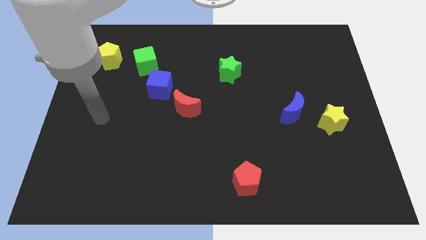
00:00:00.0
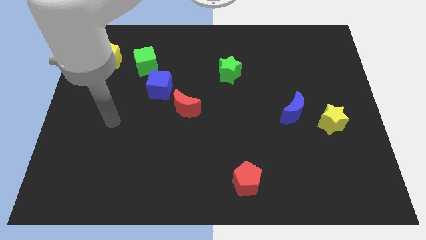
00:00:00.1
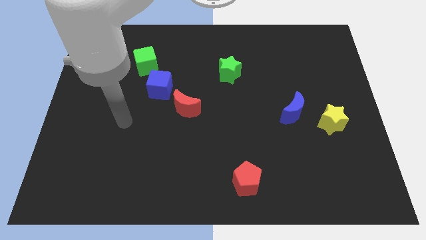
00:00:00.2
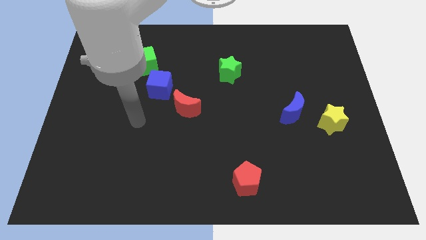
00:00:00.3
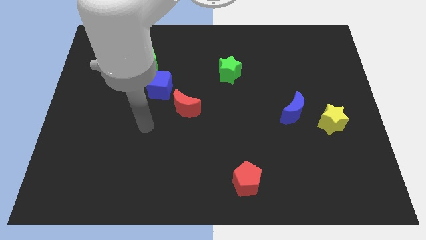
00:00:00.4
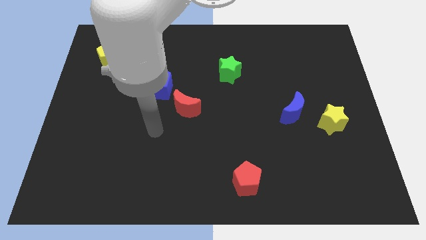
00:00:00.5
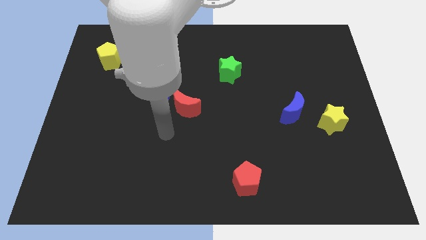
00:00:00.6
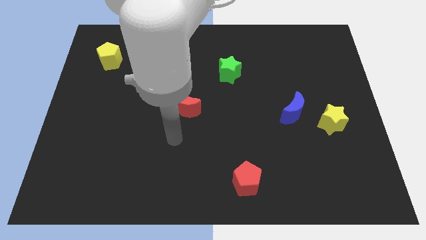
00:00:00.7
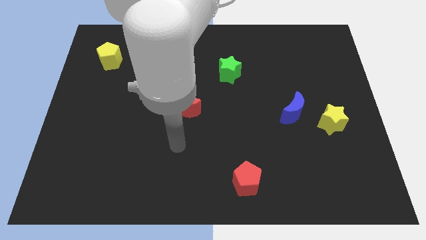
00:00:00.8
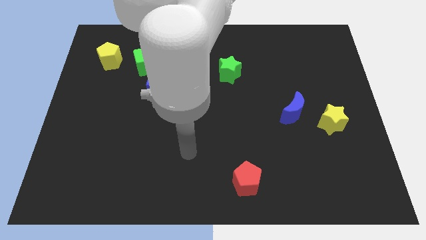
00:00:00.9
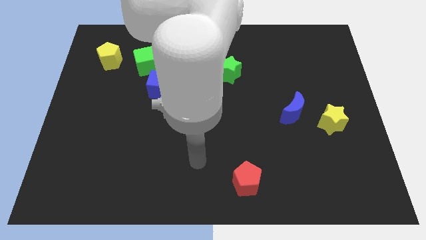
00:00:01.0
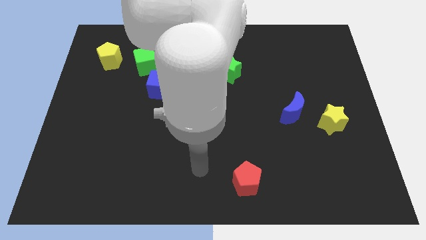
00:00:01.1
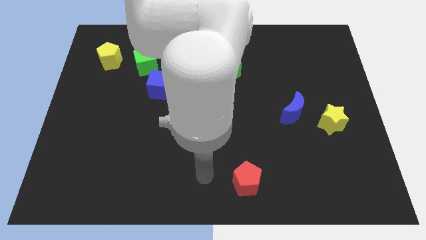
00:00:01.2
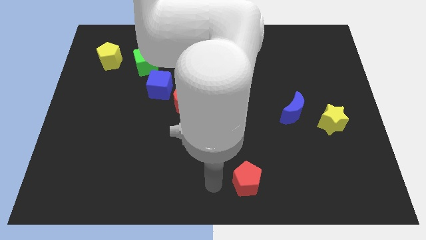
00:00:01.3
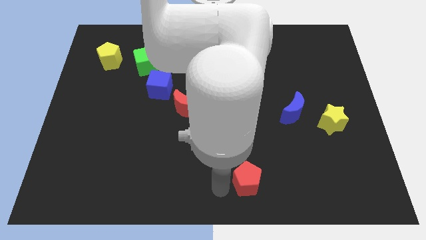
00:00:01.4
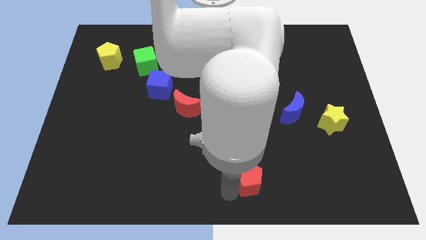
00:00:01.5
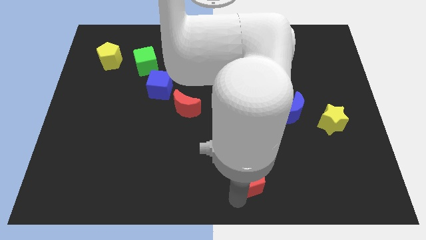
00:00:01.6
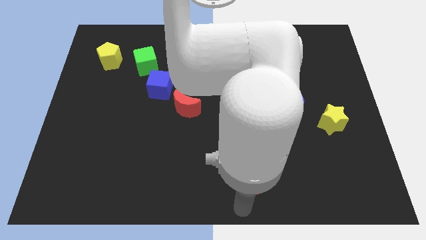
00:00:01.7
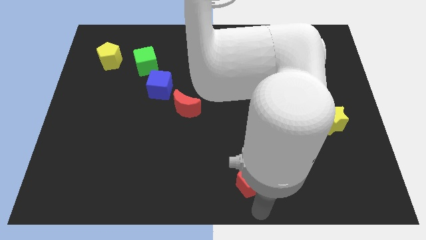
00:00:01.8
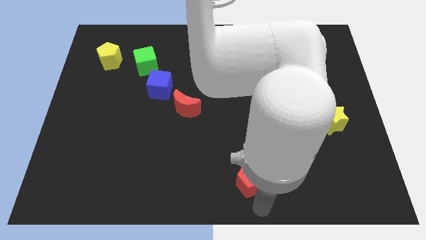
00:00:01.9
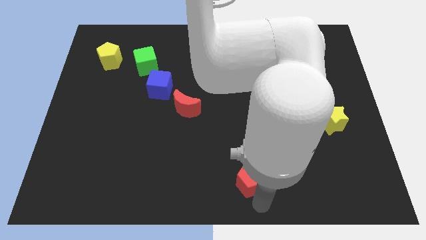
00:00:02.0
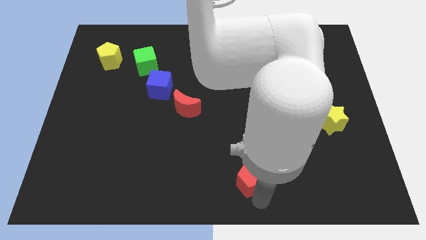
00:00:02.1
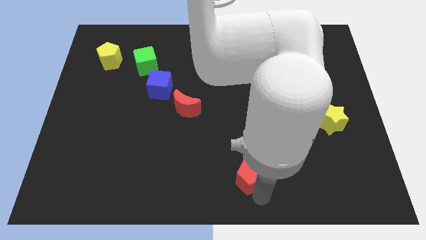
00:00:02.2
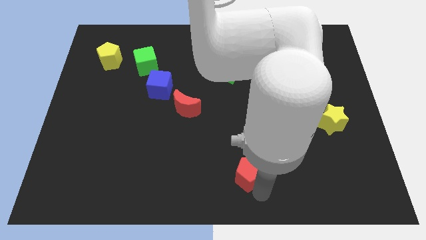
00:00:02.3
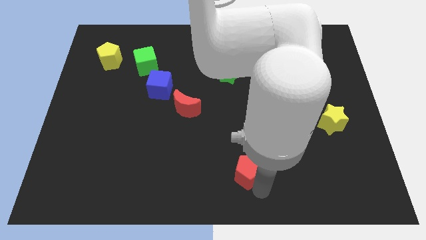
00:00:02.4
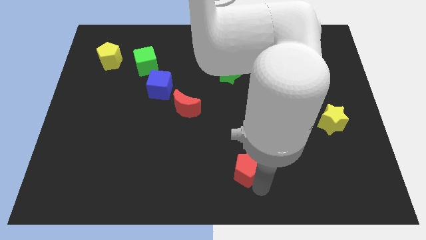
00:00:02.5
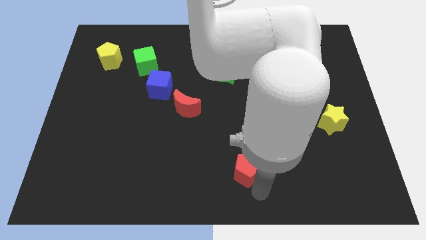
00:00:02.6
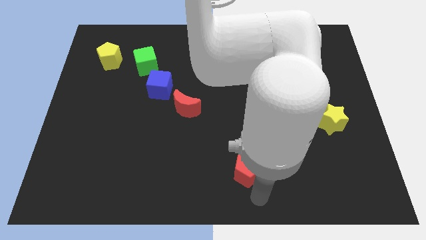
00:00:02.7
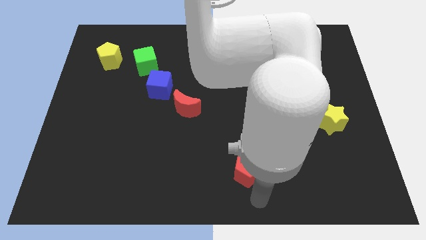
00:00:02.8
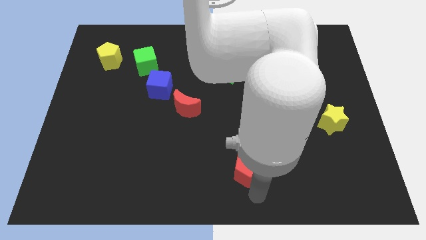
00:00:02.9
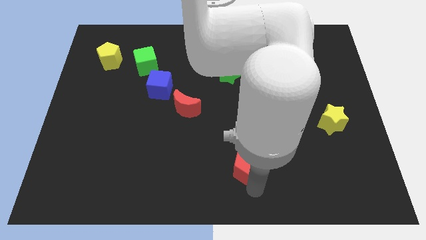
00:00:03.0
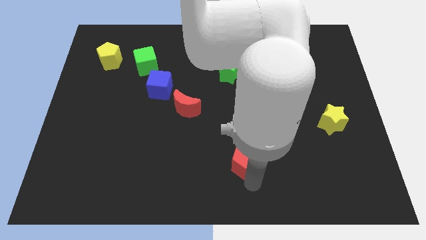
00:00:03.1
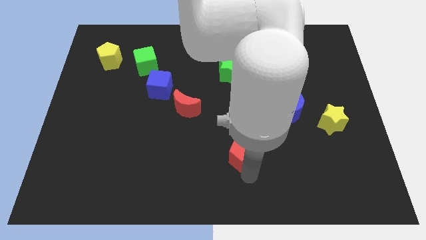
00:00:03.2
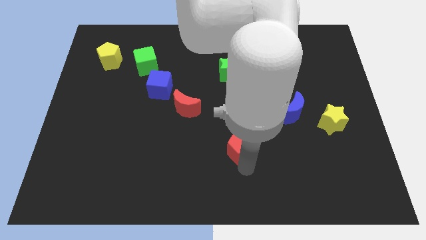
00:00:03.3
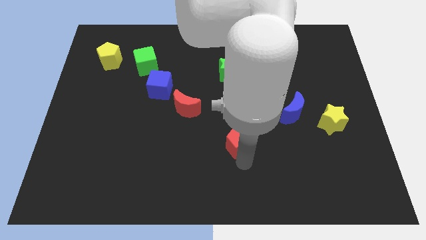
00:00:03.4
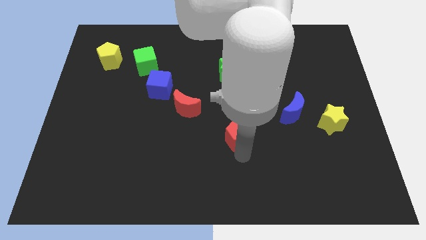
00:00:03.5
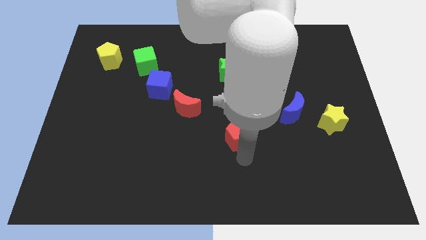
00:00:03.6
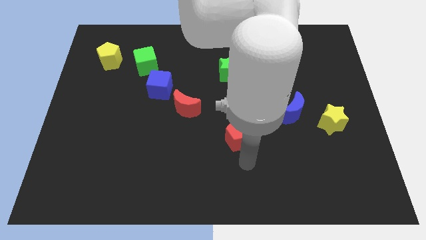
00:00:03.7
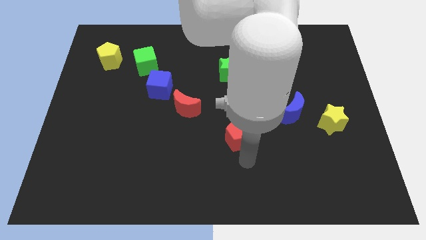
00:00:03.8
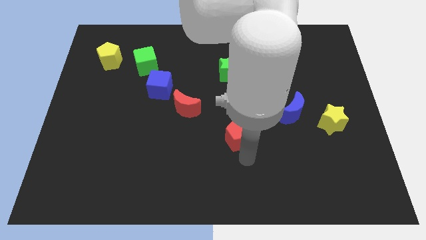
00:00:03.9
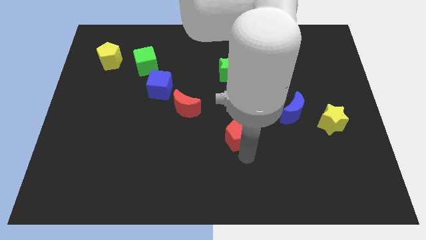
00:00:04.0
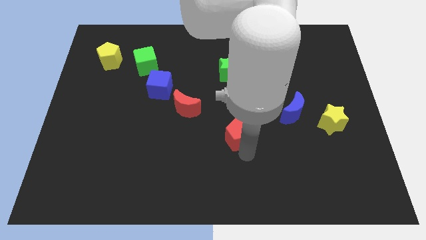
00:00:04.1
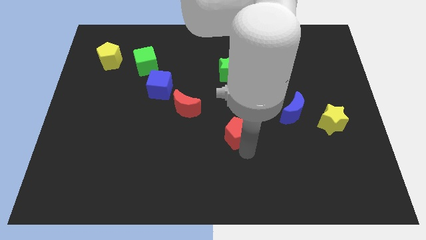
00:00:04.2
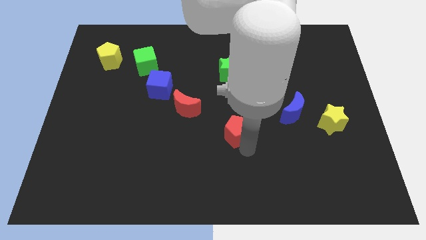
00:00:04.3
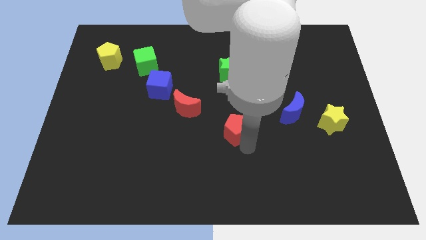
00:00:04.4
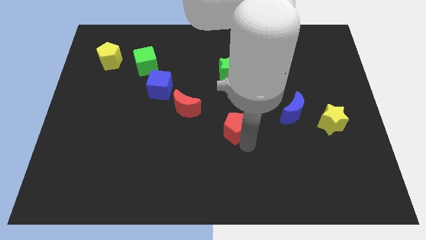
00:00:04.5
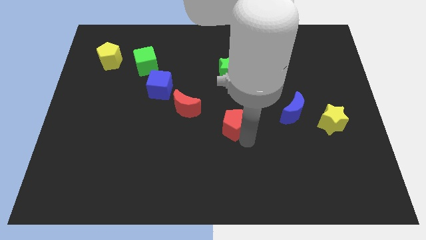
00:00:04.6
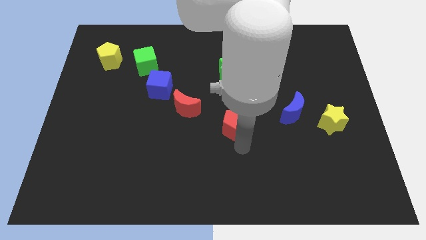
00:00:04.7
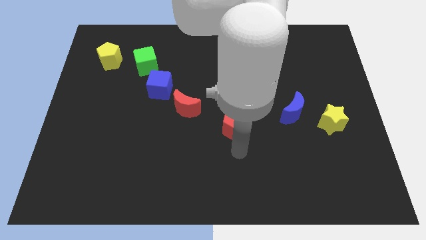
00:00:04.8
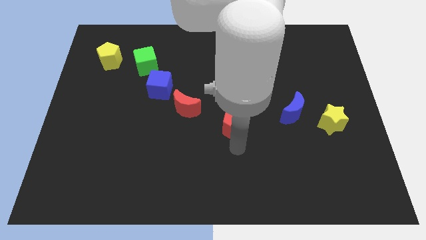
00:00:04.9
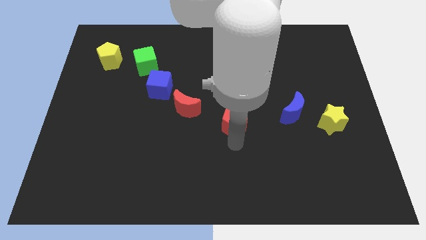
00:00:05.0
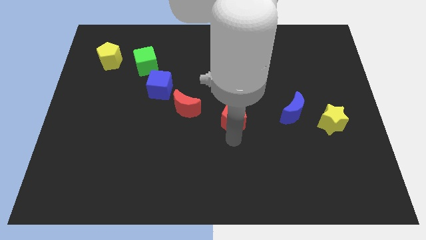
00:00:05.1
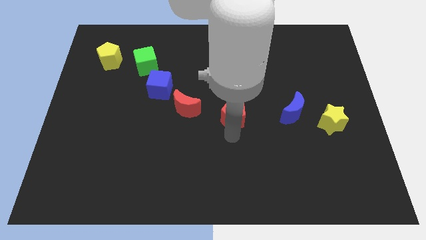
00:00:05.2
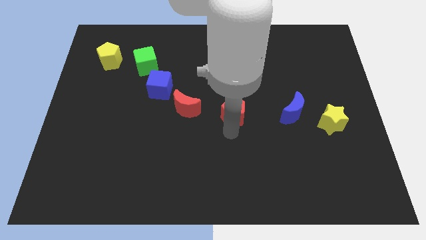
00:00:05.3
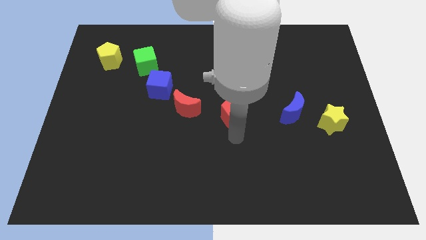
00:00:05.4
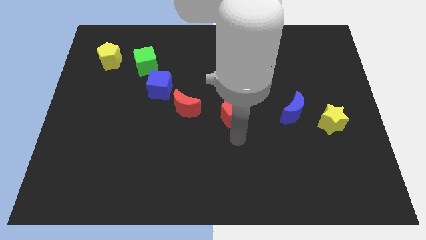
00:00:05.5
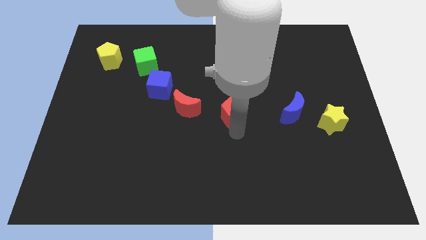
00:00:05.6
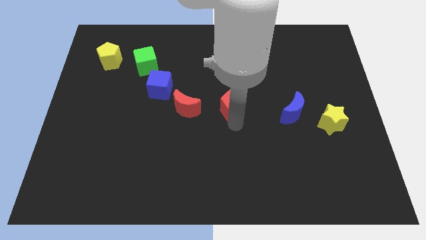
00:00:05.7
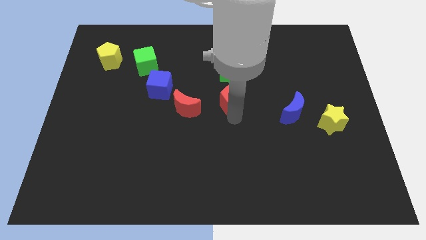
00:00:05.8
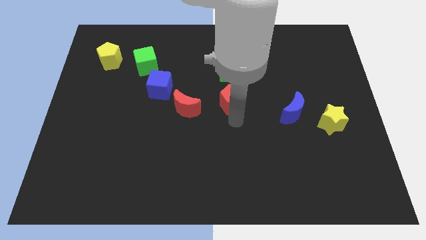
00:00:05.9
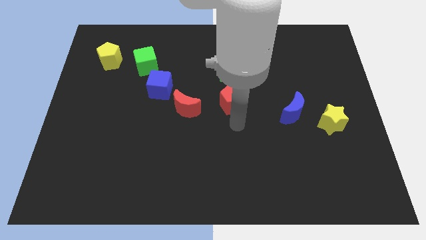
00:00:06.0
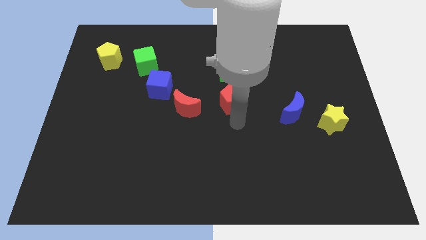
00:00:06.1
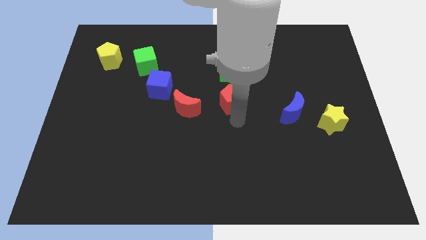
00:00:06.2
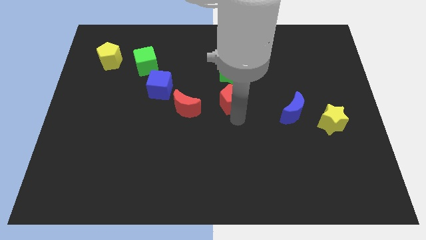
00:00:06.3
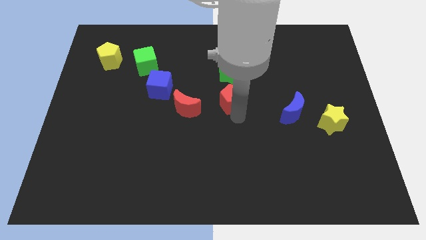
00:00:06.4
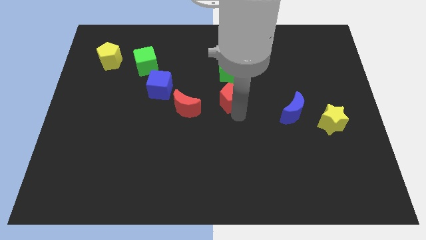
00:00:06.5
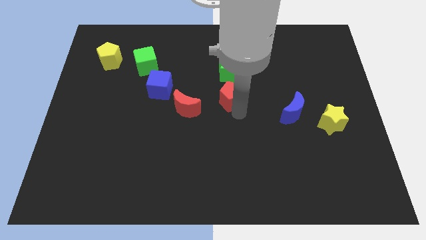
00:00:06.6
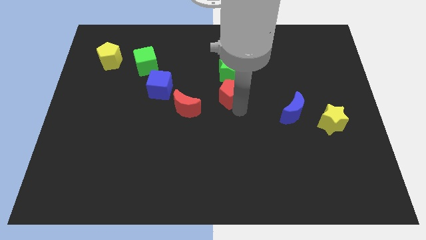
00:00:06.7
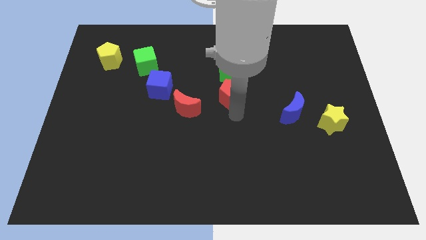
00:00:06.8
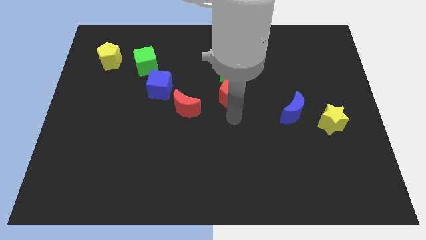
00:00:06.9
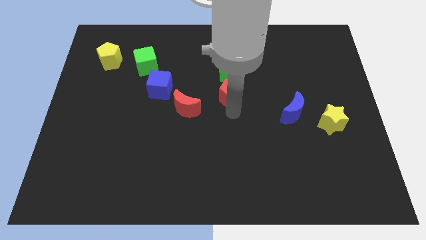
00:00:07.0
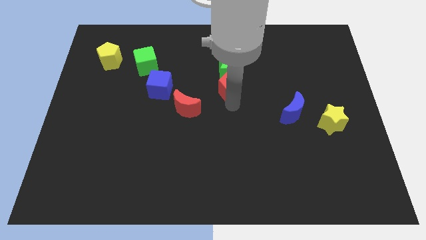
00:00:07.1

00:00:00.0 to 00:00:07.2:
put the red pentagon to the green star
